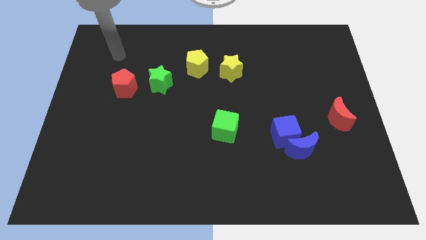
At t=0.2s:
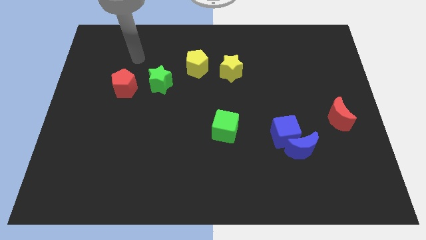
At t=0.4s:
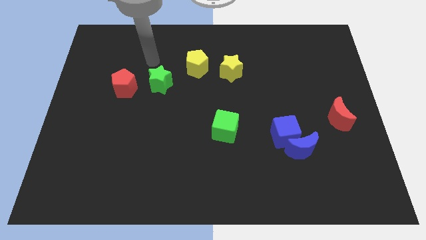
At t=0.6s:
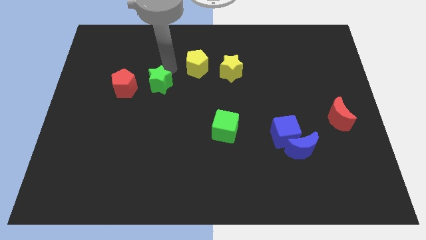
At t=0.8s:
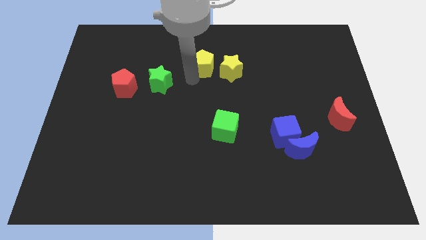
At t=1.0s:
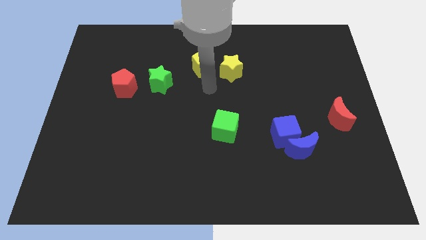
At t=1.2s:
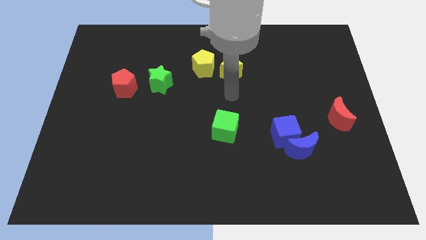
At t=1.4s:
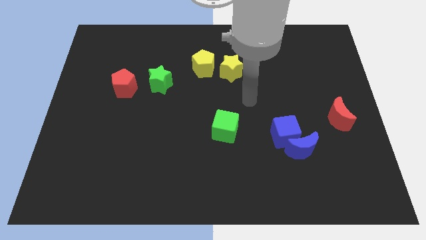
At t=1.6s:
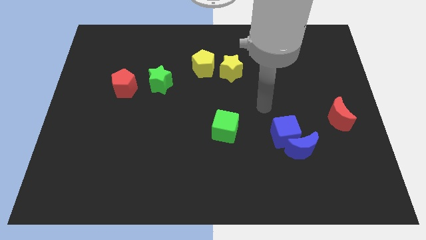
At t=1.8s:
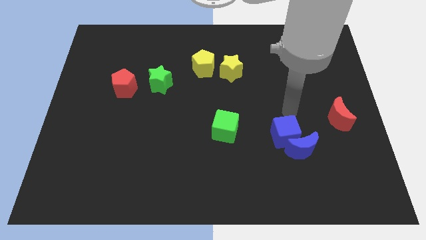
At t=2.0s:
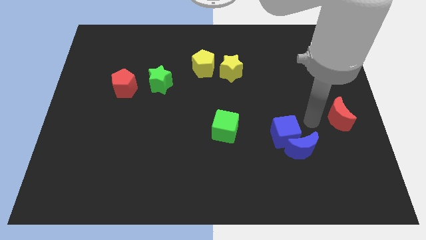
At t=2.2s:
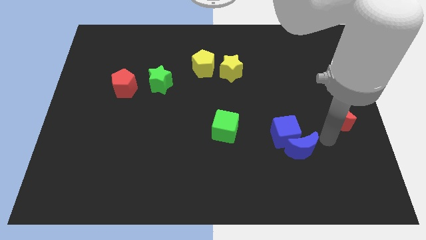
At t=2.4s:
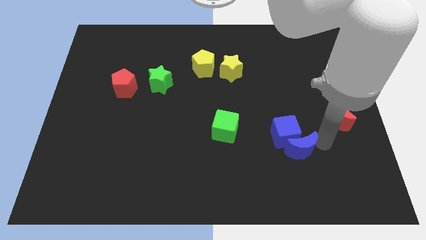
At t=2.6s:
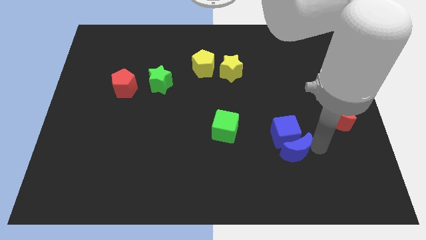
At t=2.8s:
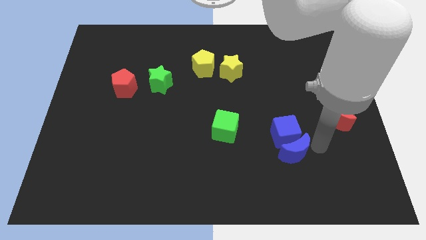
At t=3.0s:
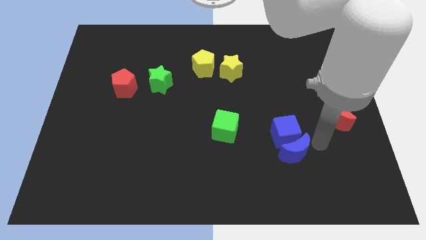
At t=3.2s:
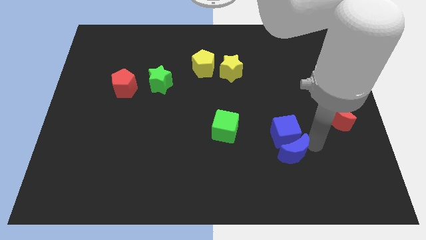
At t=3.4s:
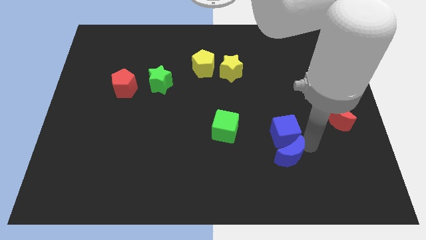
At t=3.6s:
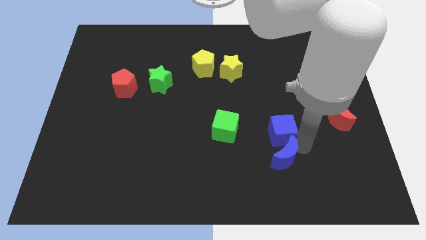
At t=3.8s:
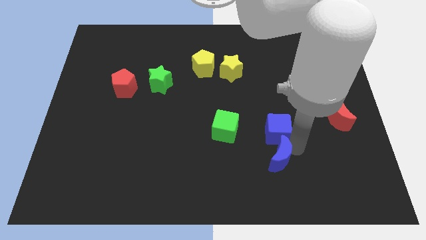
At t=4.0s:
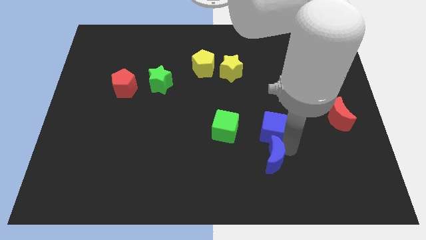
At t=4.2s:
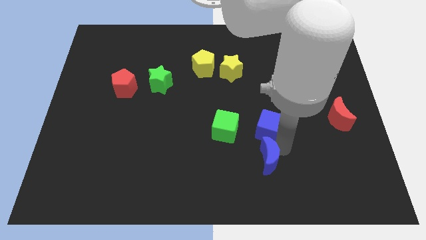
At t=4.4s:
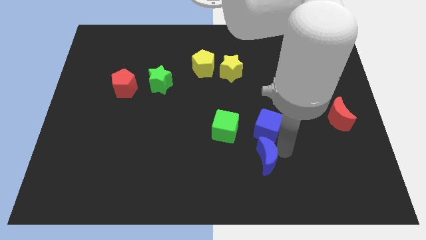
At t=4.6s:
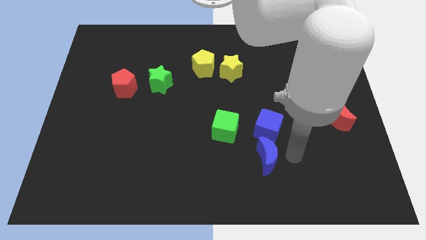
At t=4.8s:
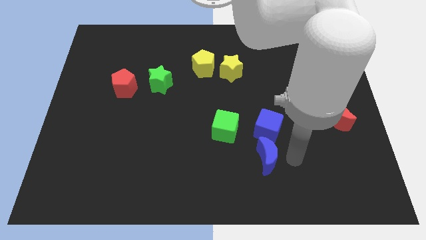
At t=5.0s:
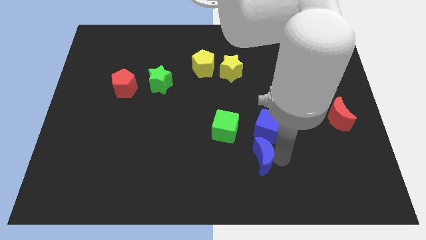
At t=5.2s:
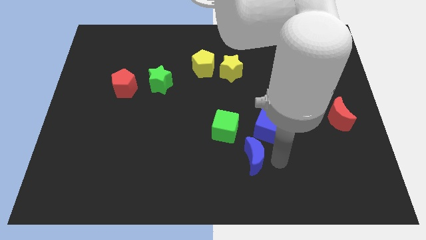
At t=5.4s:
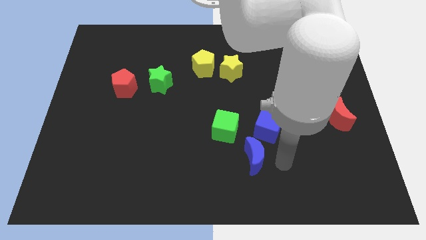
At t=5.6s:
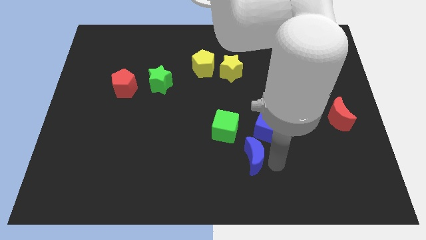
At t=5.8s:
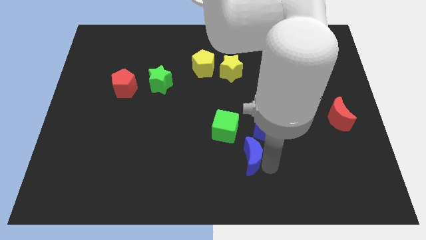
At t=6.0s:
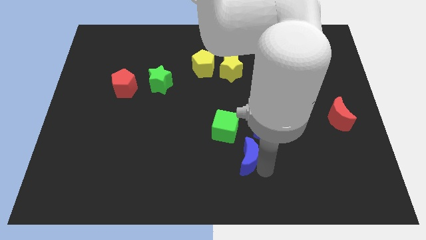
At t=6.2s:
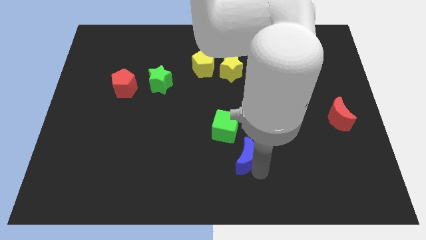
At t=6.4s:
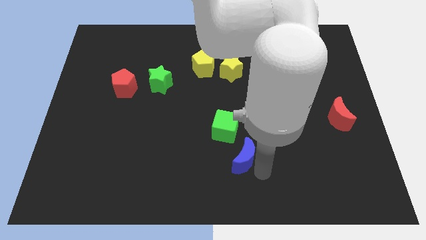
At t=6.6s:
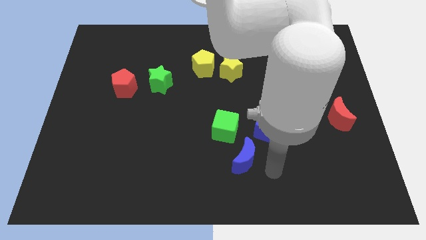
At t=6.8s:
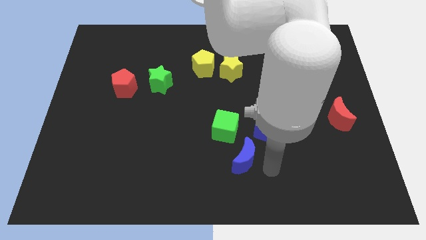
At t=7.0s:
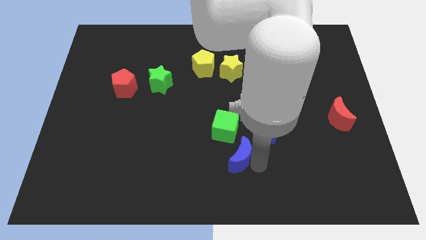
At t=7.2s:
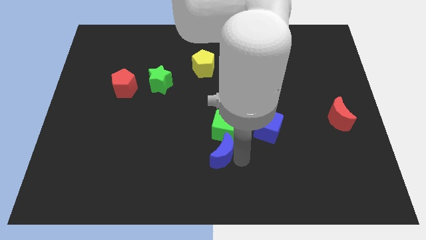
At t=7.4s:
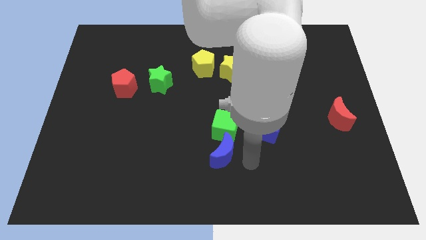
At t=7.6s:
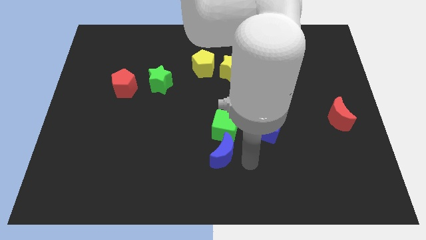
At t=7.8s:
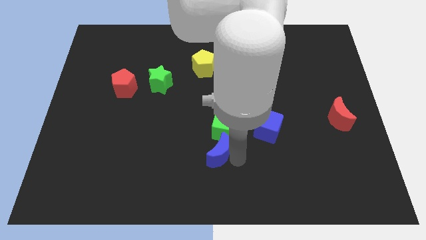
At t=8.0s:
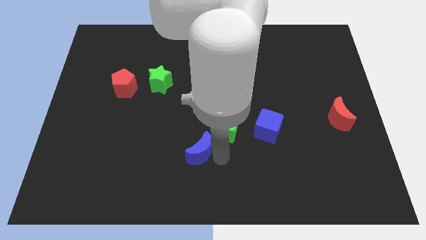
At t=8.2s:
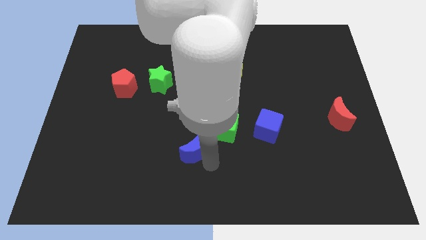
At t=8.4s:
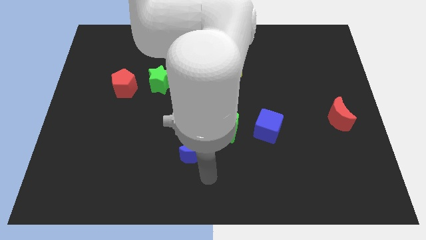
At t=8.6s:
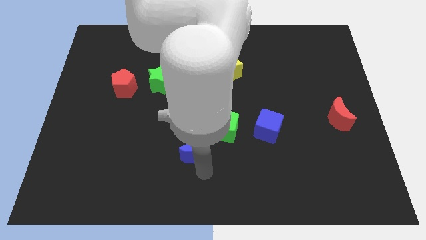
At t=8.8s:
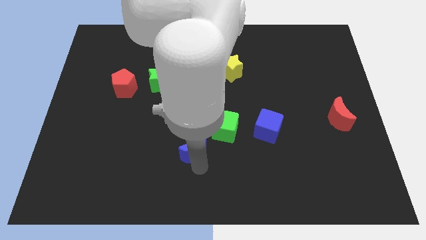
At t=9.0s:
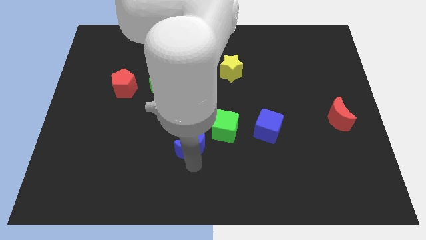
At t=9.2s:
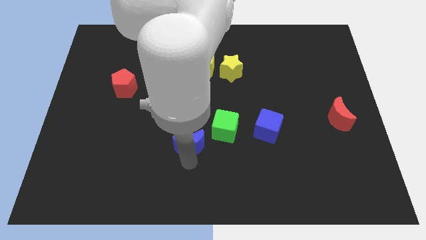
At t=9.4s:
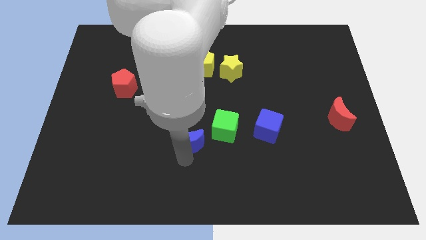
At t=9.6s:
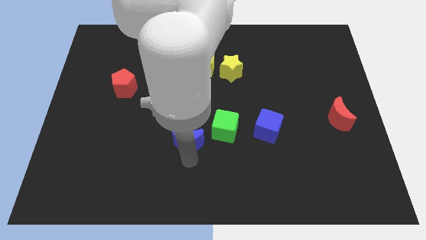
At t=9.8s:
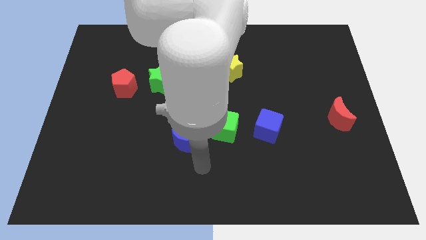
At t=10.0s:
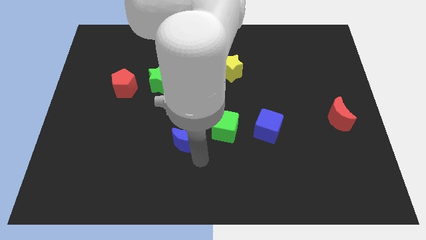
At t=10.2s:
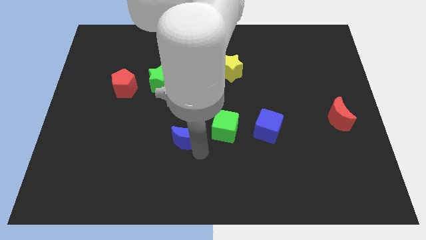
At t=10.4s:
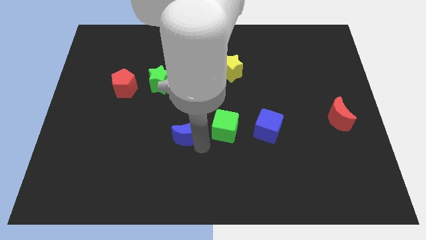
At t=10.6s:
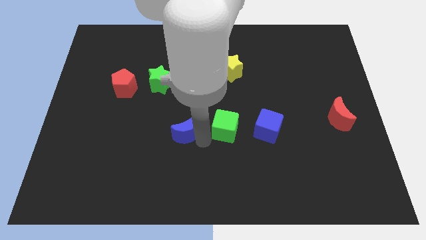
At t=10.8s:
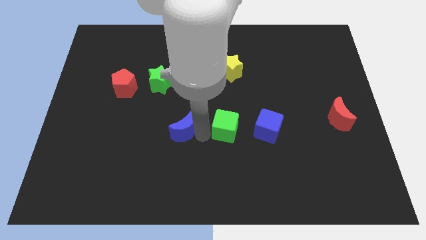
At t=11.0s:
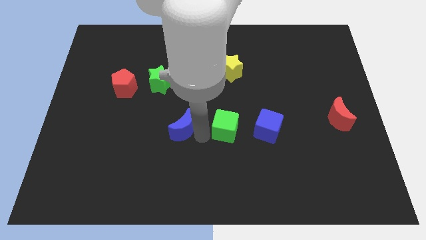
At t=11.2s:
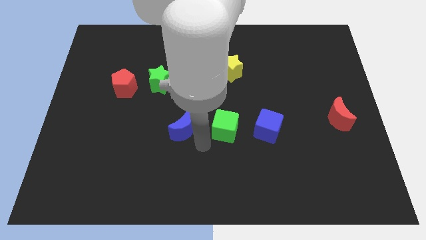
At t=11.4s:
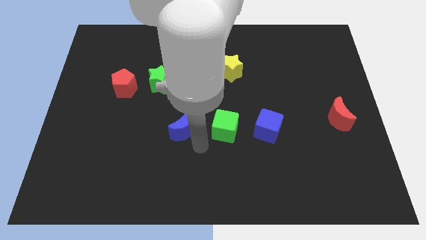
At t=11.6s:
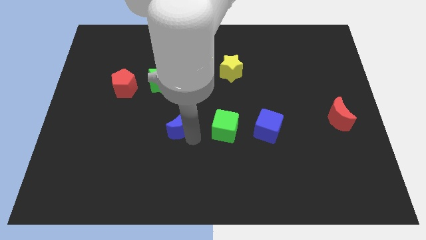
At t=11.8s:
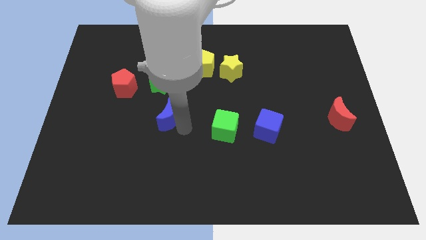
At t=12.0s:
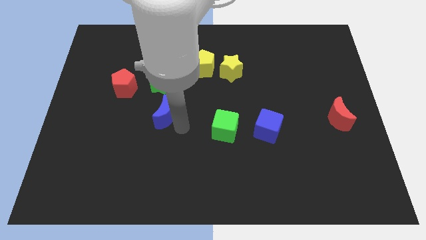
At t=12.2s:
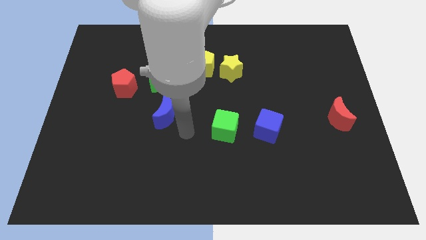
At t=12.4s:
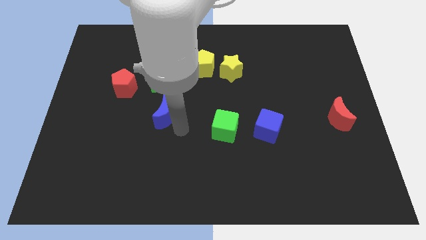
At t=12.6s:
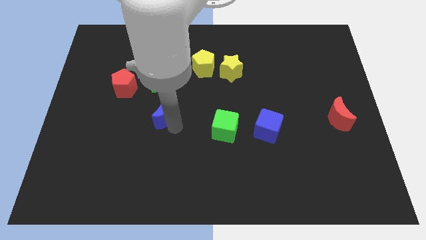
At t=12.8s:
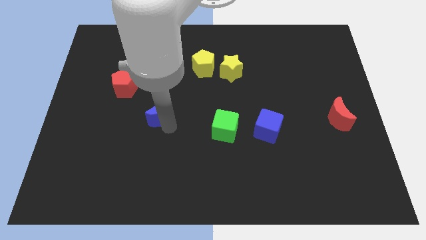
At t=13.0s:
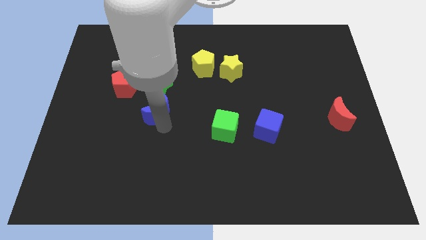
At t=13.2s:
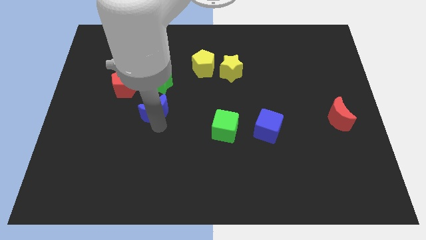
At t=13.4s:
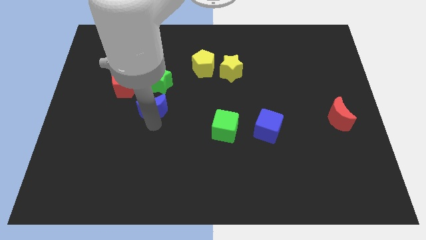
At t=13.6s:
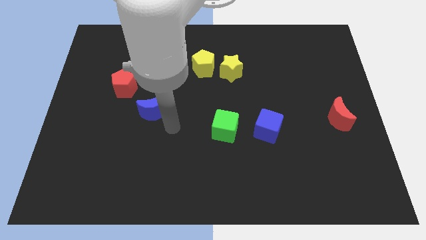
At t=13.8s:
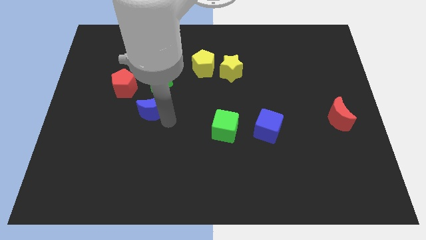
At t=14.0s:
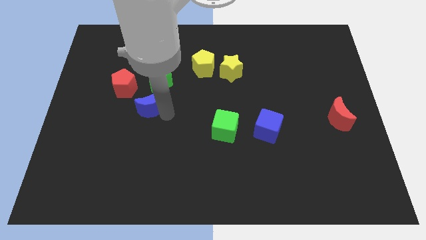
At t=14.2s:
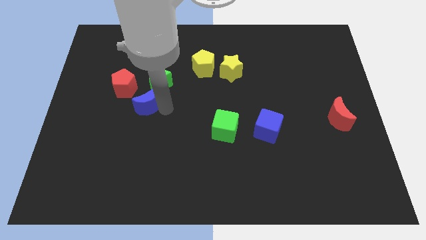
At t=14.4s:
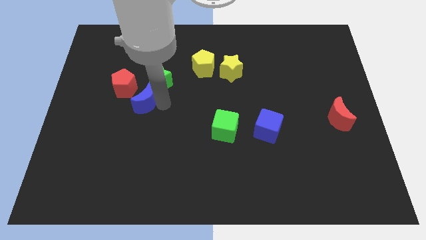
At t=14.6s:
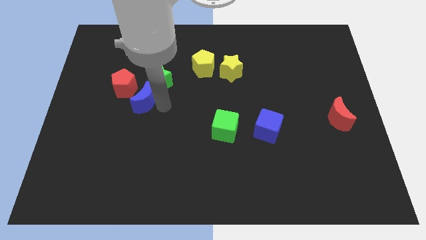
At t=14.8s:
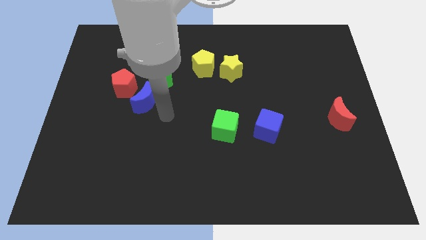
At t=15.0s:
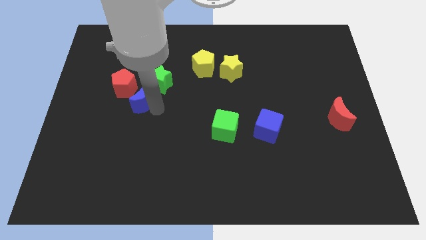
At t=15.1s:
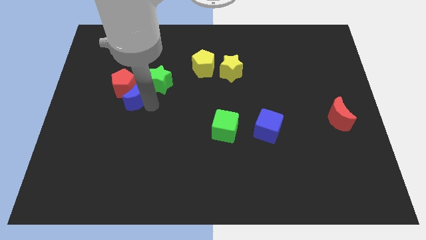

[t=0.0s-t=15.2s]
push the blue moon close to the red pentagon
